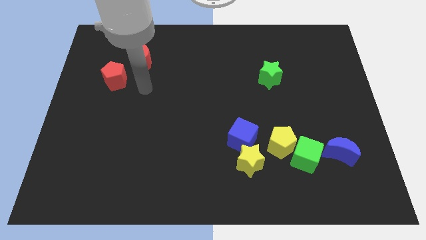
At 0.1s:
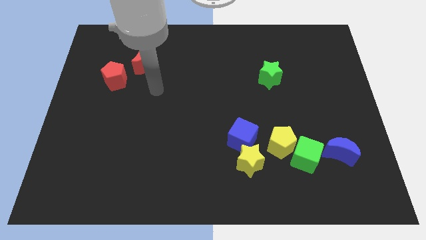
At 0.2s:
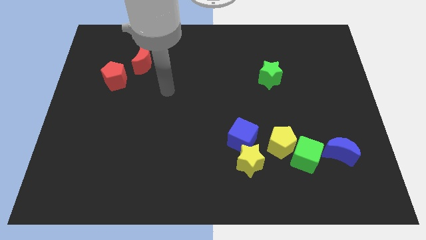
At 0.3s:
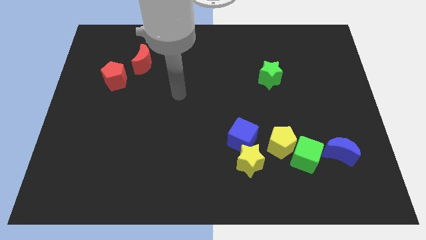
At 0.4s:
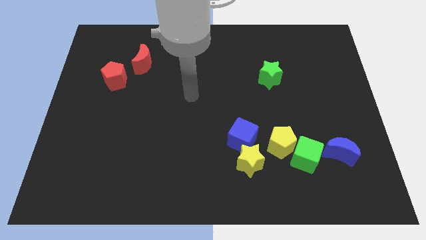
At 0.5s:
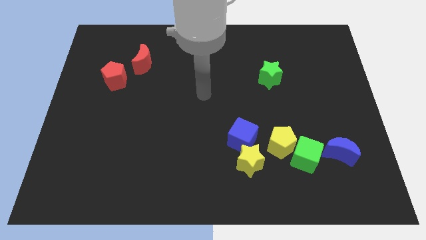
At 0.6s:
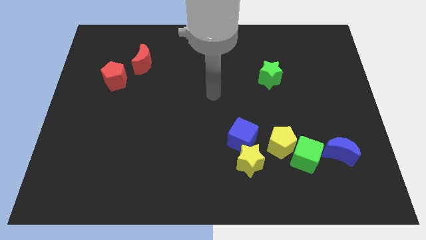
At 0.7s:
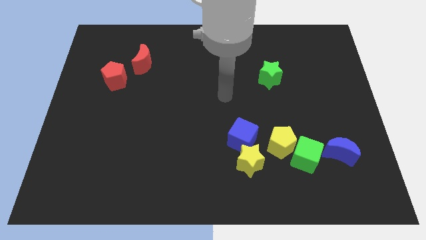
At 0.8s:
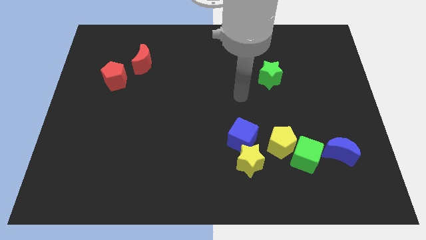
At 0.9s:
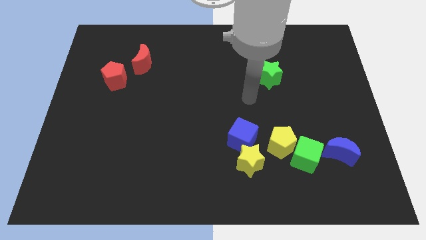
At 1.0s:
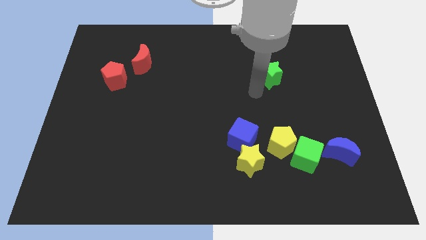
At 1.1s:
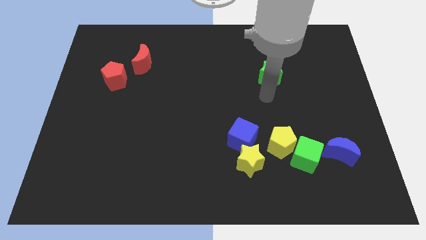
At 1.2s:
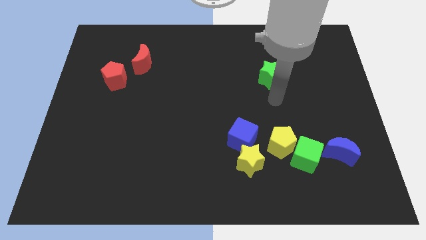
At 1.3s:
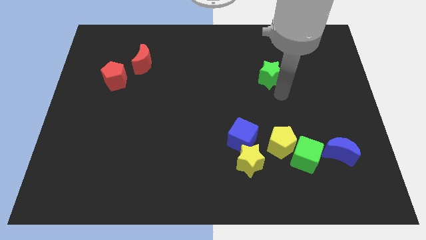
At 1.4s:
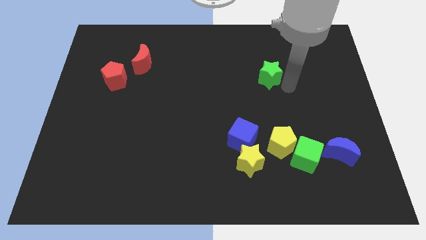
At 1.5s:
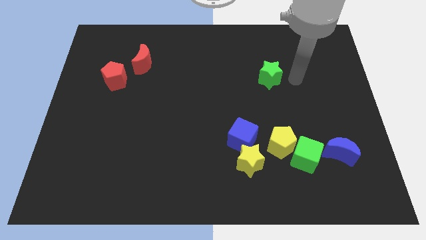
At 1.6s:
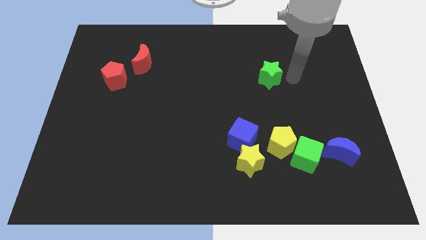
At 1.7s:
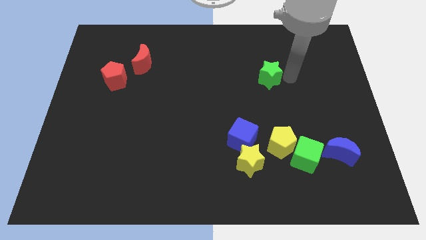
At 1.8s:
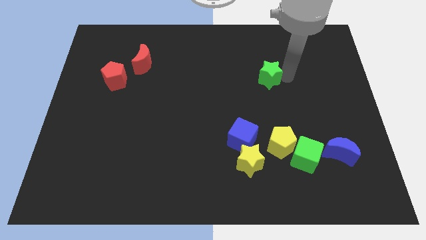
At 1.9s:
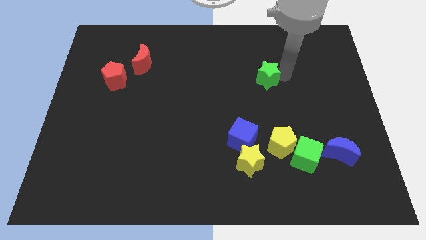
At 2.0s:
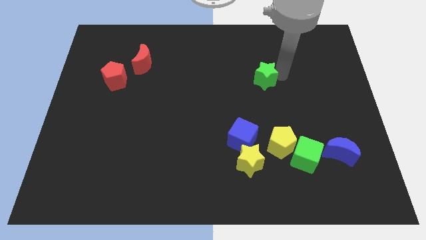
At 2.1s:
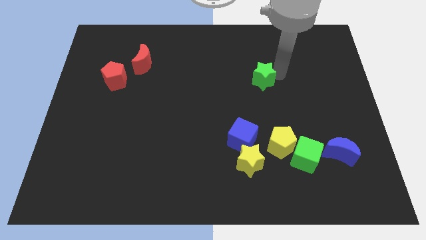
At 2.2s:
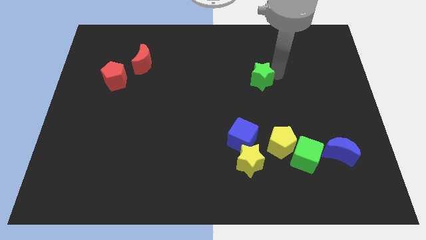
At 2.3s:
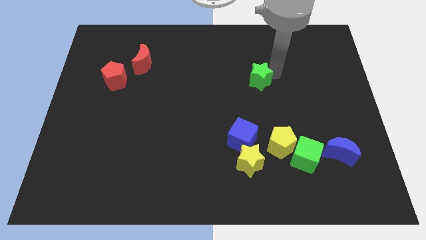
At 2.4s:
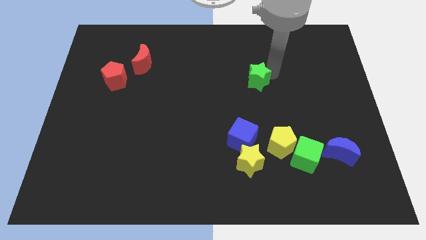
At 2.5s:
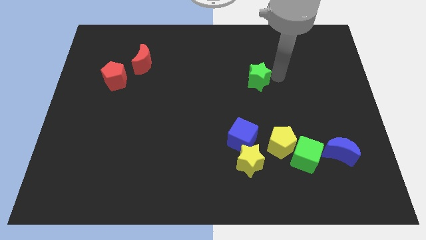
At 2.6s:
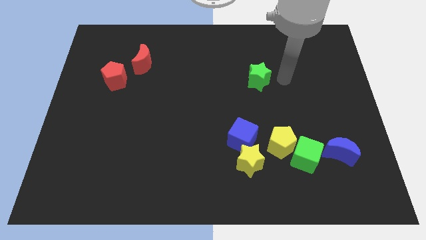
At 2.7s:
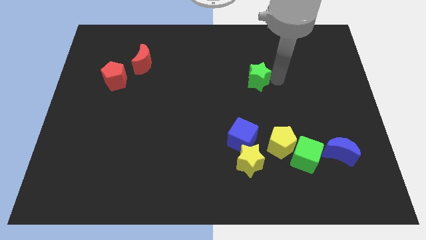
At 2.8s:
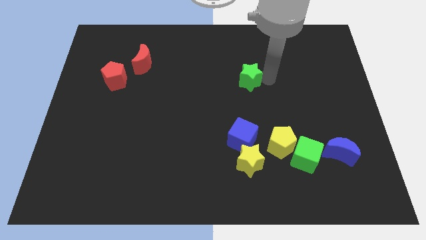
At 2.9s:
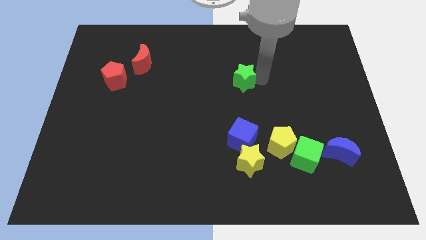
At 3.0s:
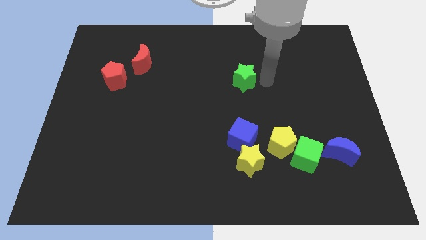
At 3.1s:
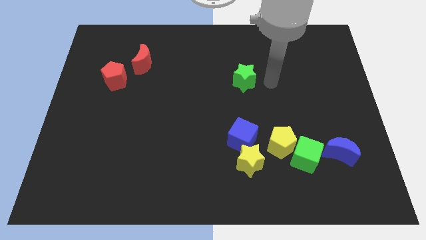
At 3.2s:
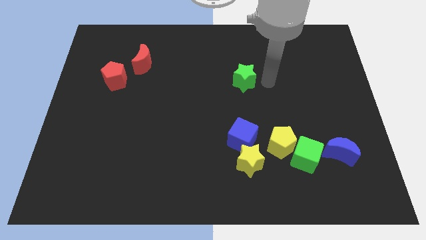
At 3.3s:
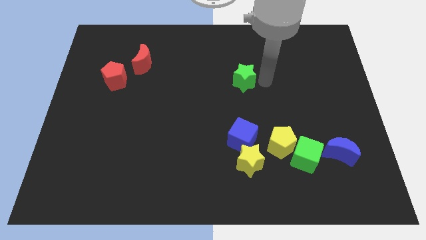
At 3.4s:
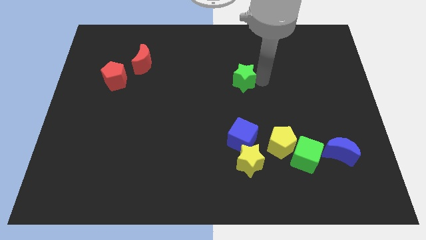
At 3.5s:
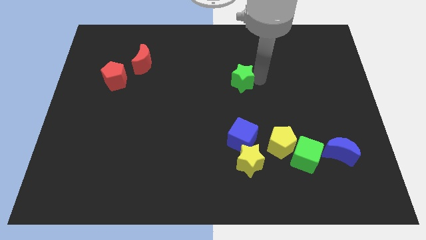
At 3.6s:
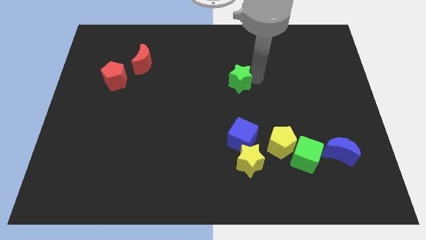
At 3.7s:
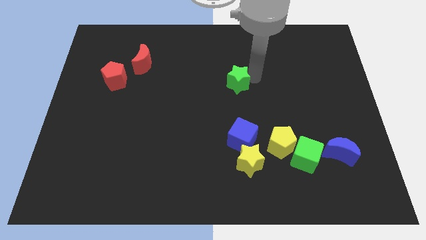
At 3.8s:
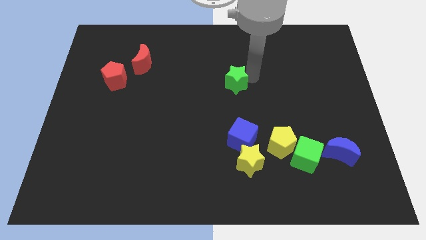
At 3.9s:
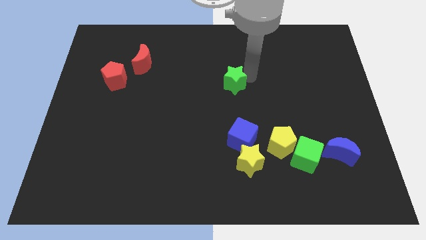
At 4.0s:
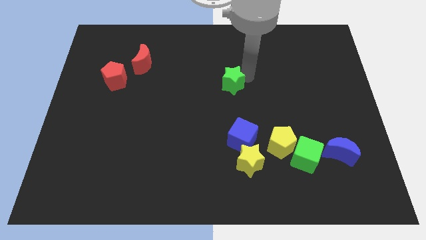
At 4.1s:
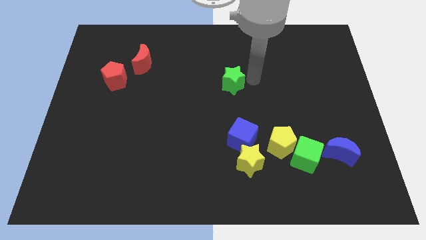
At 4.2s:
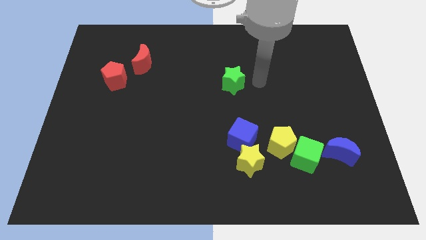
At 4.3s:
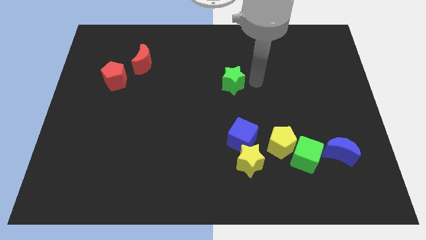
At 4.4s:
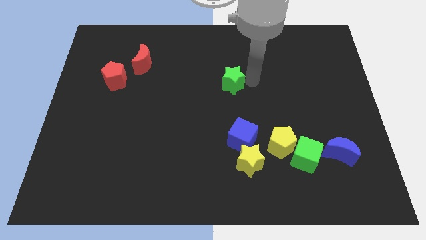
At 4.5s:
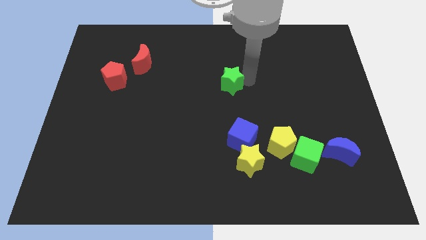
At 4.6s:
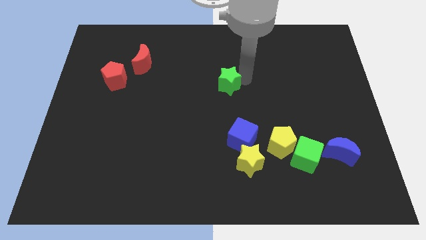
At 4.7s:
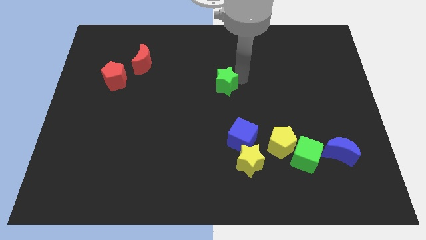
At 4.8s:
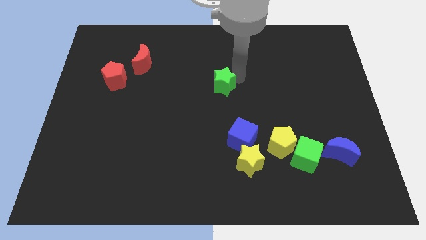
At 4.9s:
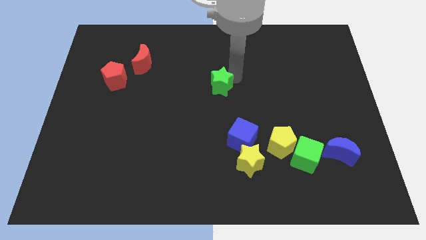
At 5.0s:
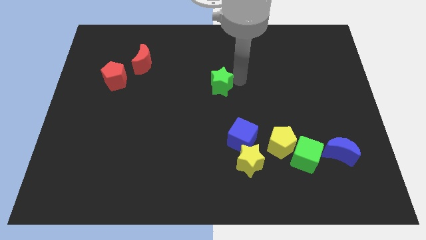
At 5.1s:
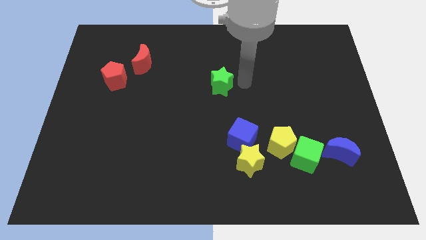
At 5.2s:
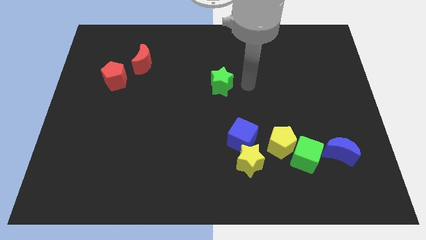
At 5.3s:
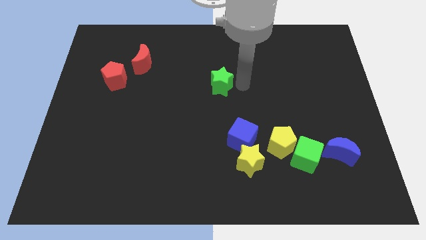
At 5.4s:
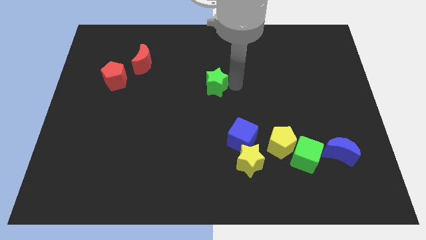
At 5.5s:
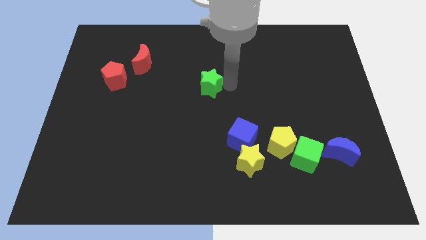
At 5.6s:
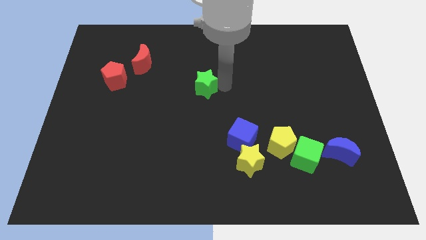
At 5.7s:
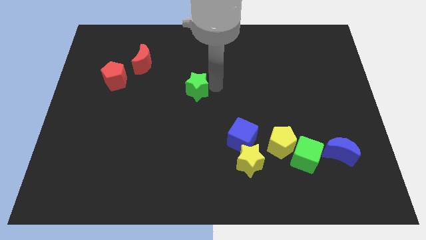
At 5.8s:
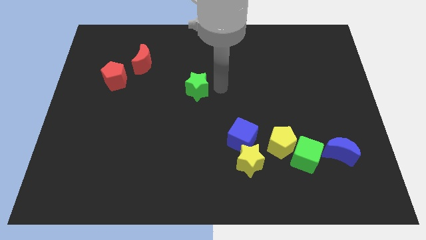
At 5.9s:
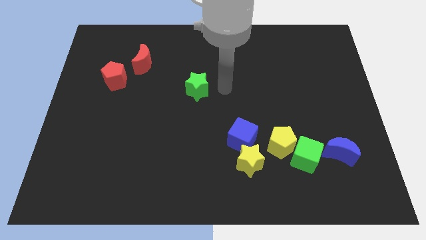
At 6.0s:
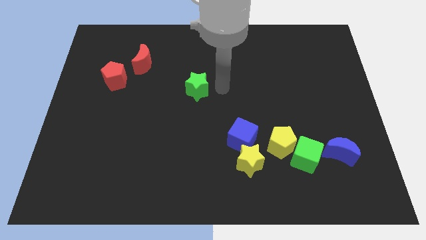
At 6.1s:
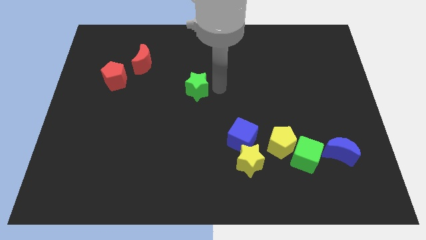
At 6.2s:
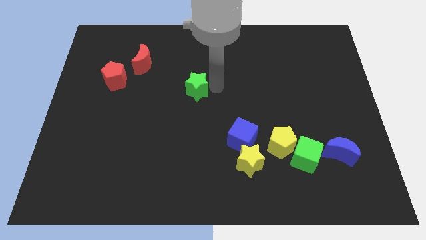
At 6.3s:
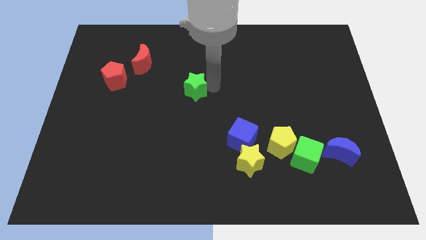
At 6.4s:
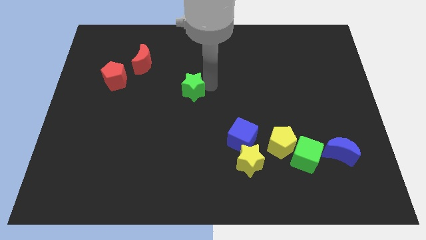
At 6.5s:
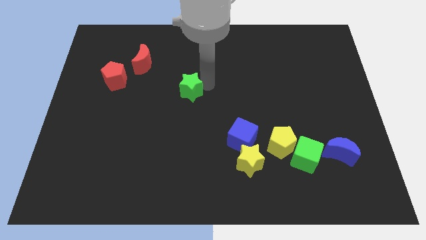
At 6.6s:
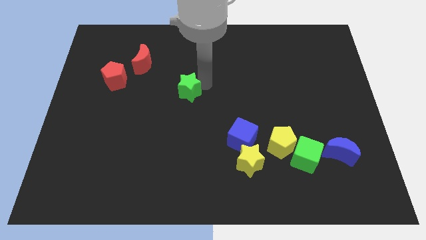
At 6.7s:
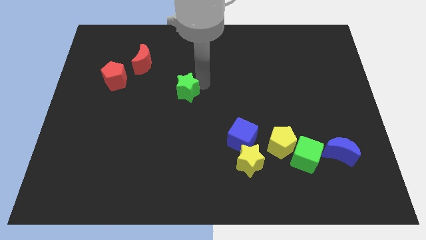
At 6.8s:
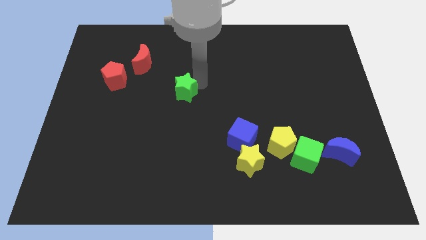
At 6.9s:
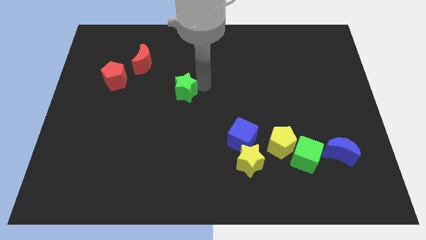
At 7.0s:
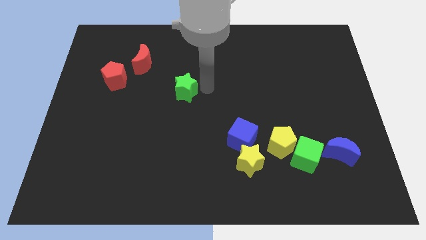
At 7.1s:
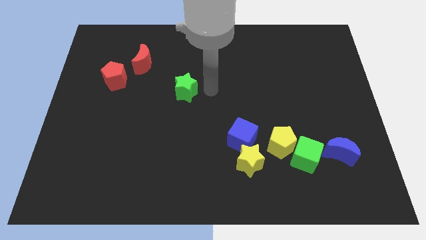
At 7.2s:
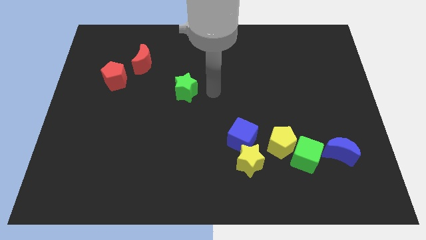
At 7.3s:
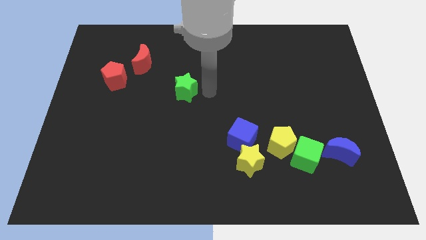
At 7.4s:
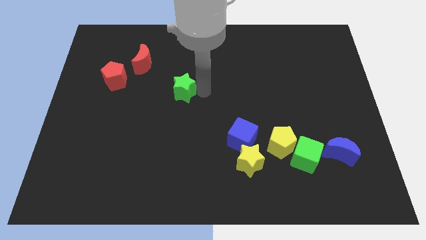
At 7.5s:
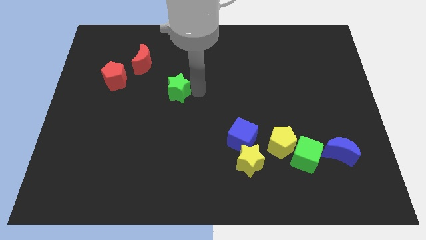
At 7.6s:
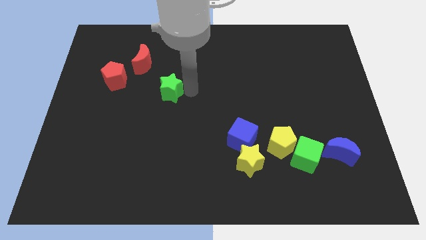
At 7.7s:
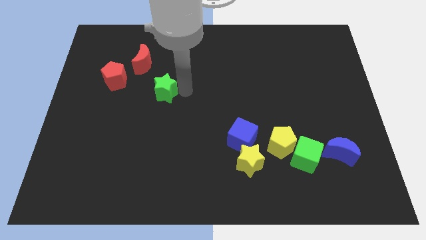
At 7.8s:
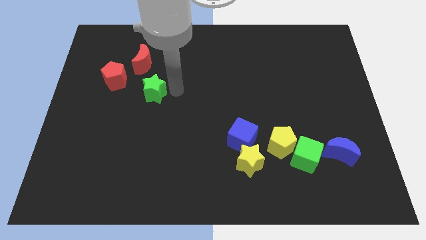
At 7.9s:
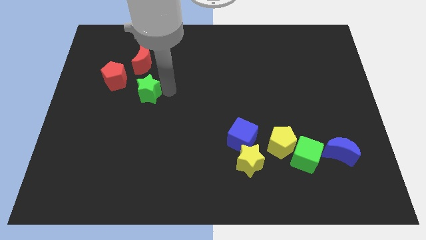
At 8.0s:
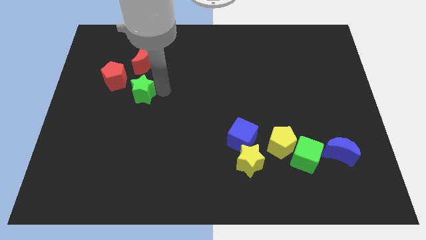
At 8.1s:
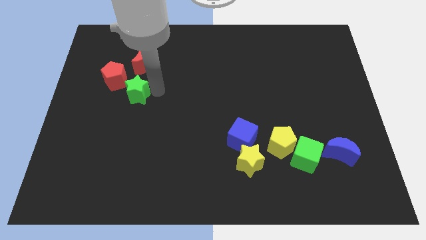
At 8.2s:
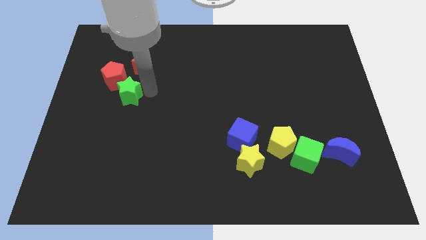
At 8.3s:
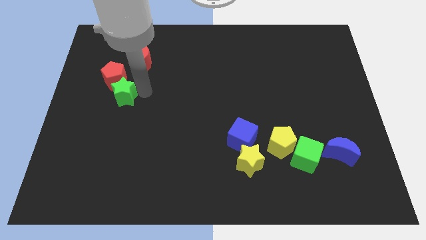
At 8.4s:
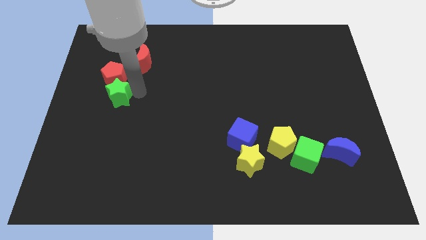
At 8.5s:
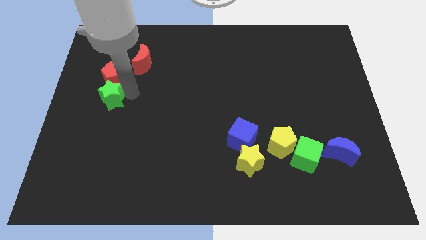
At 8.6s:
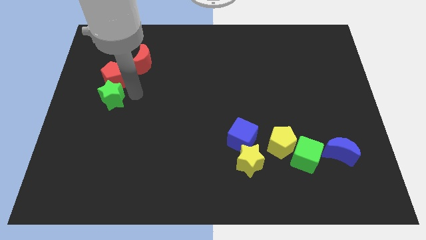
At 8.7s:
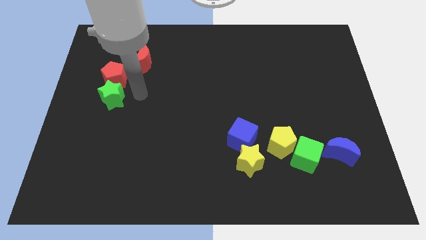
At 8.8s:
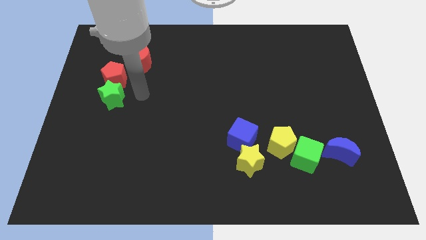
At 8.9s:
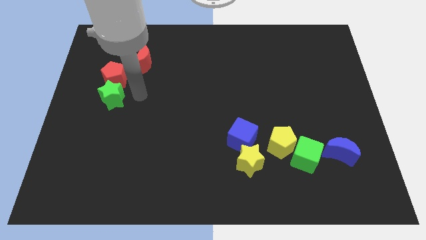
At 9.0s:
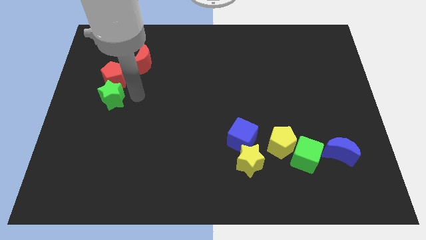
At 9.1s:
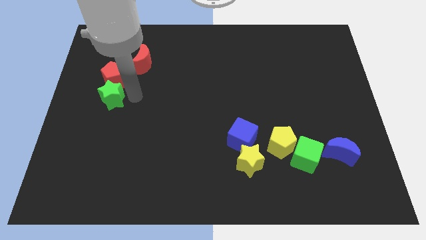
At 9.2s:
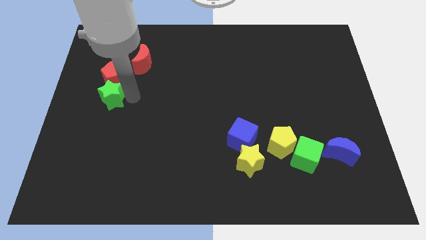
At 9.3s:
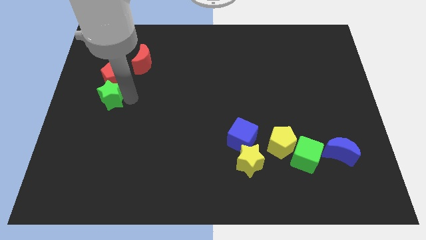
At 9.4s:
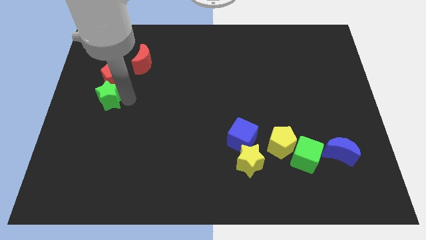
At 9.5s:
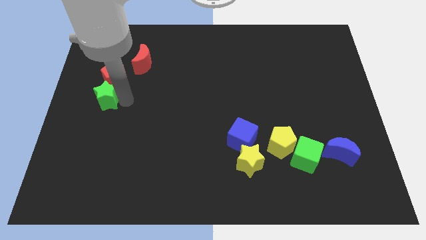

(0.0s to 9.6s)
slide the green star to the center left
